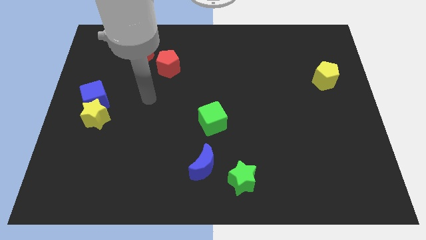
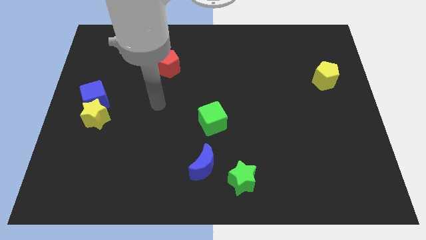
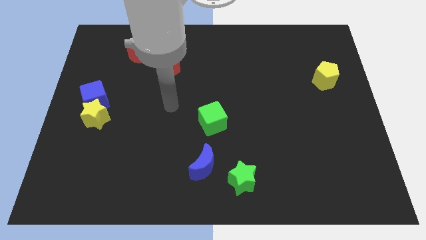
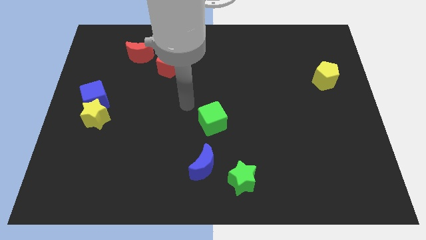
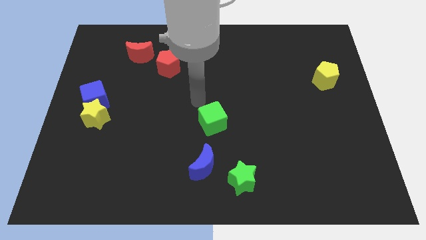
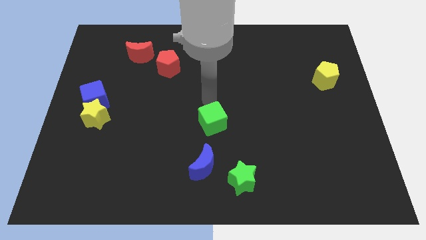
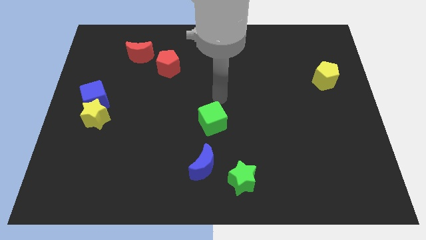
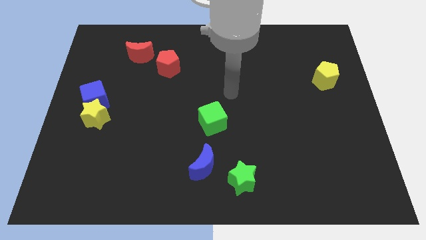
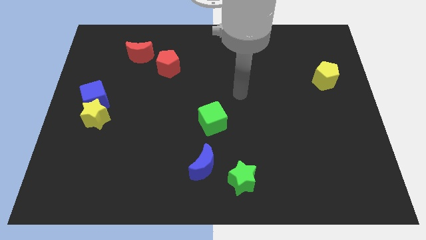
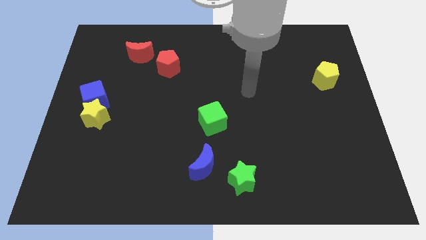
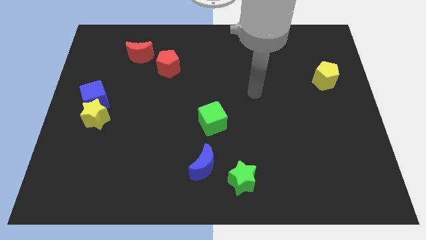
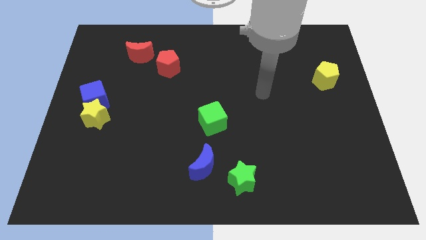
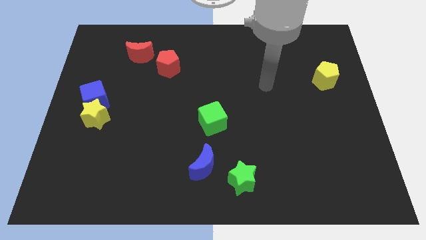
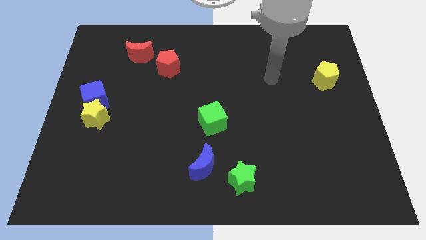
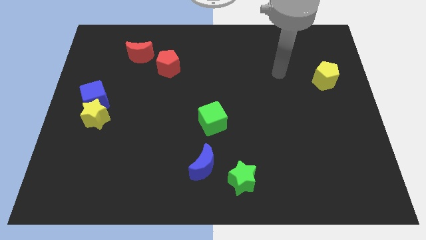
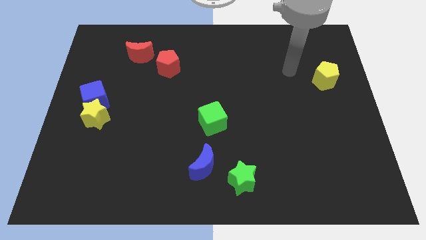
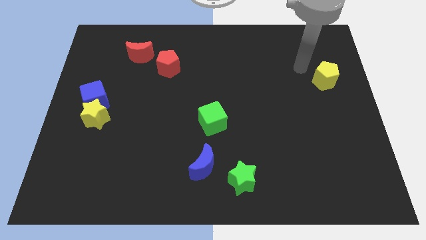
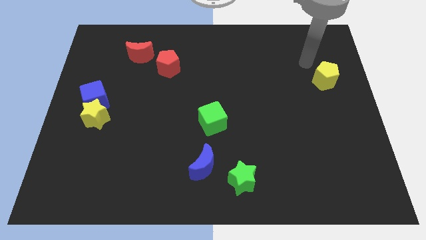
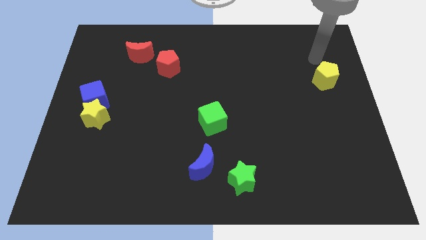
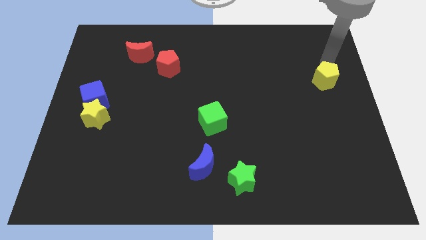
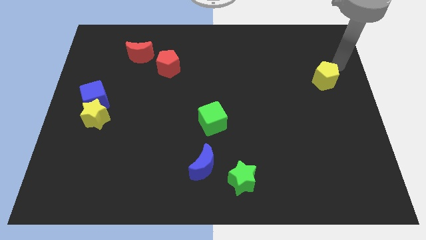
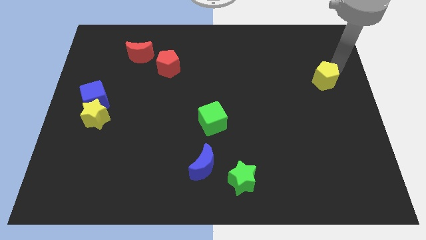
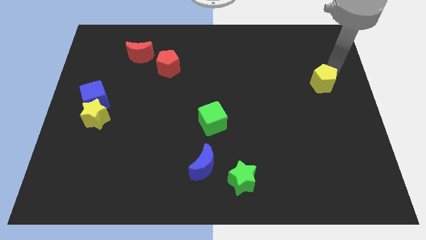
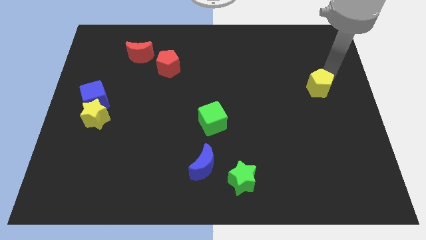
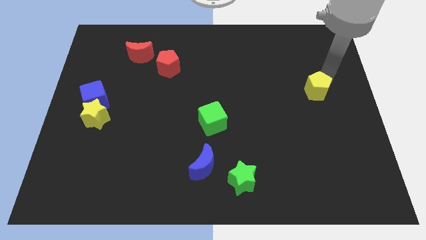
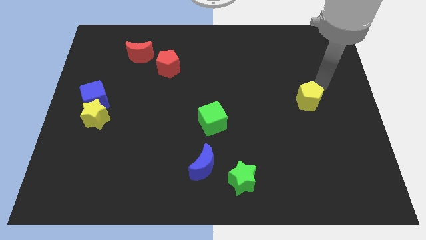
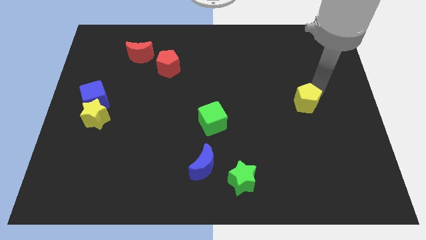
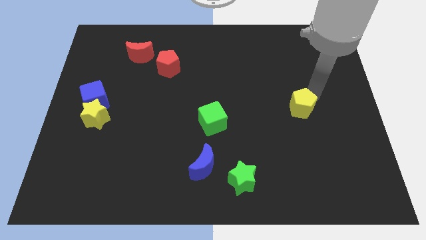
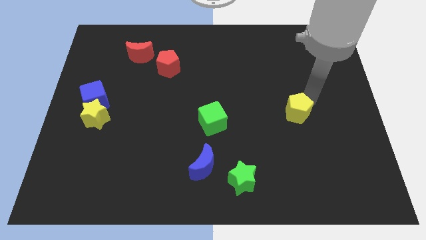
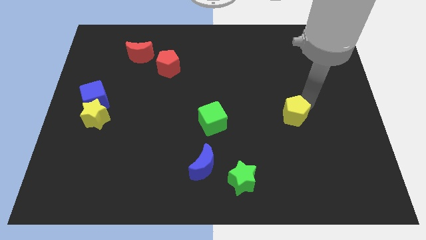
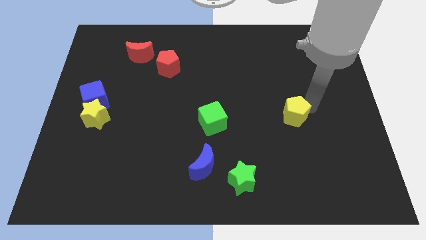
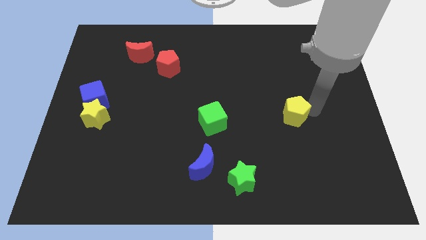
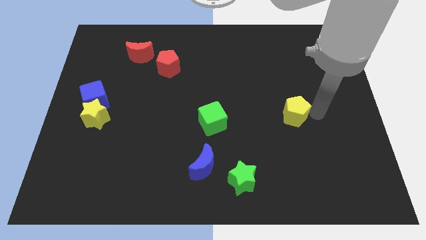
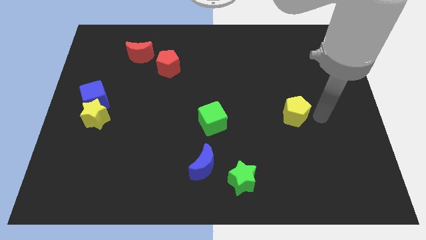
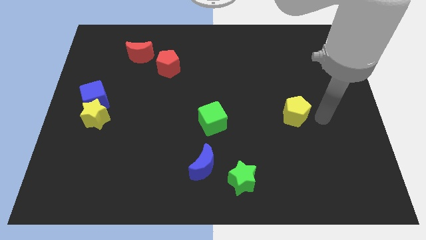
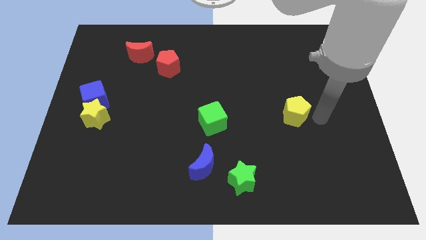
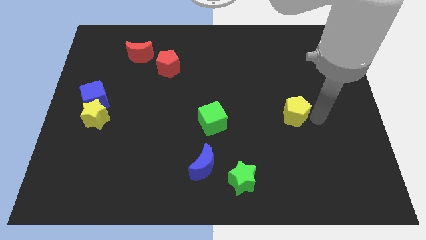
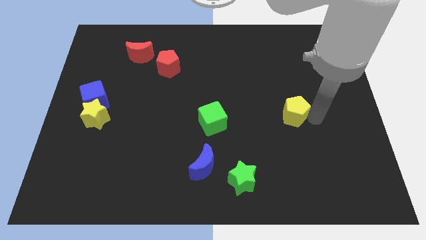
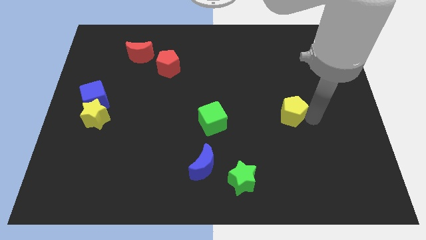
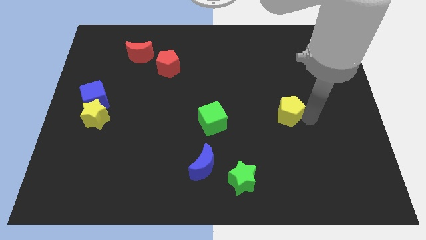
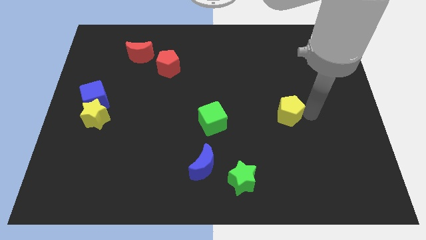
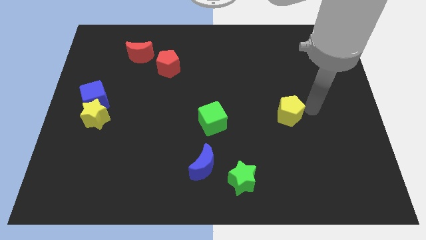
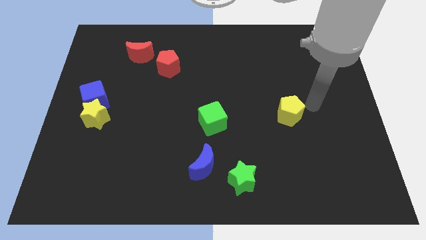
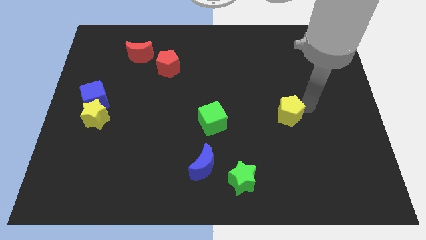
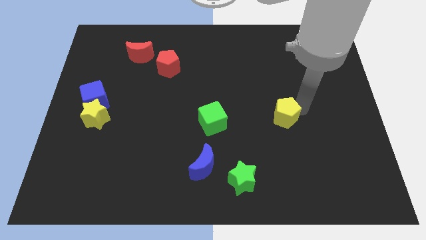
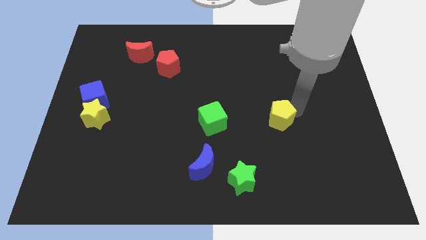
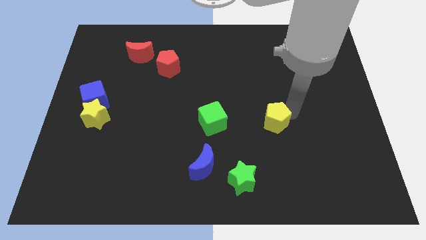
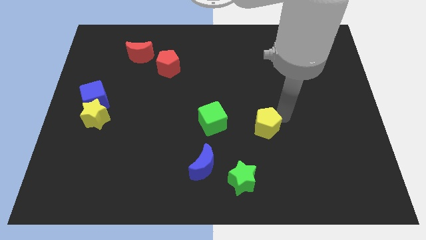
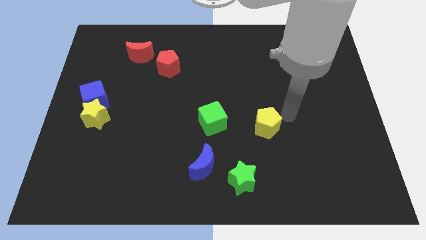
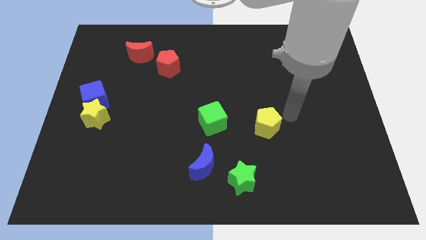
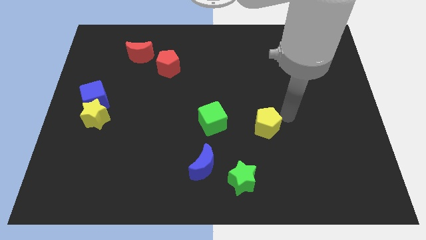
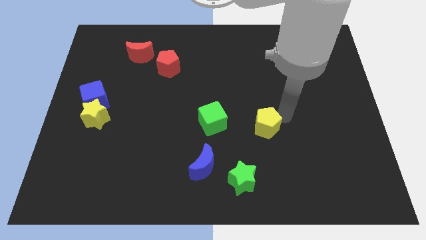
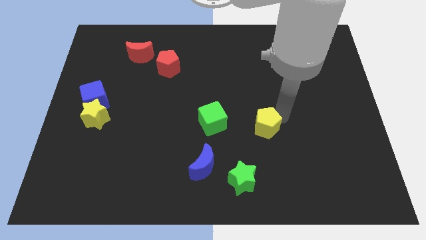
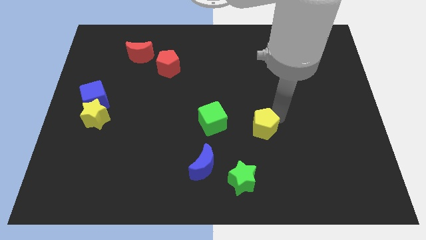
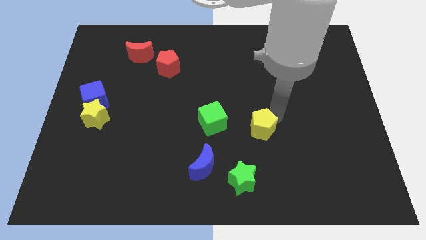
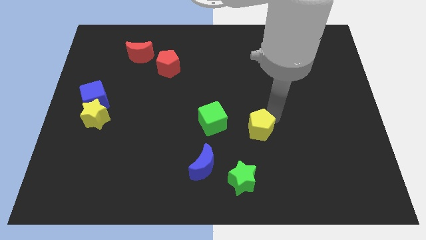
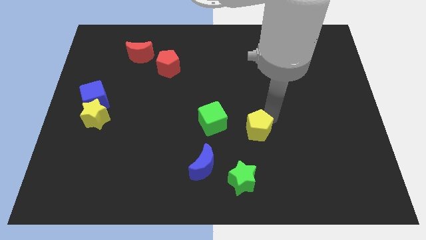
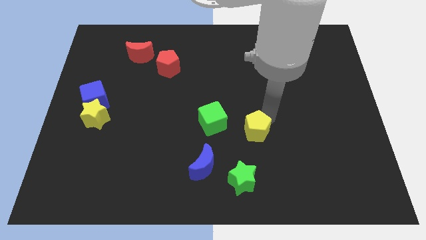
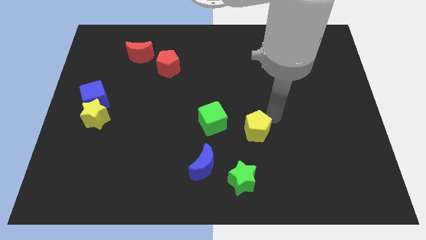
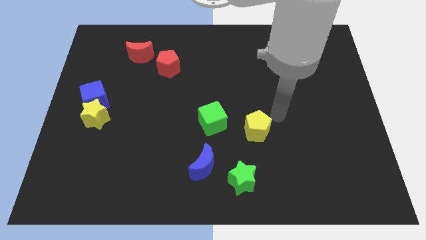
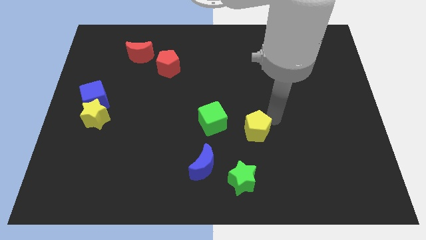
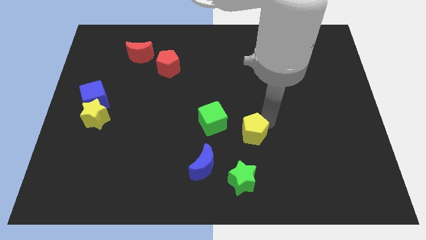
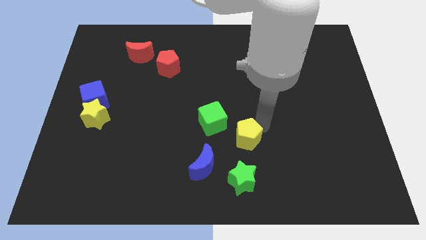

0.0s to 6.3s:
put the yellow pentagon to the top right of the blue moon

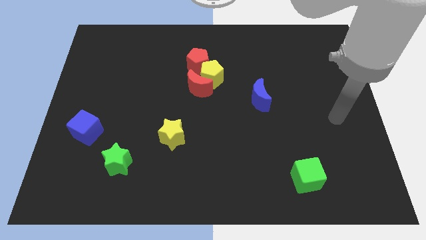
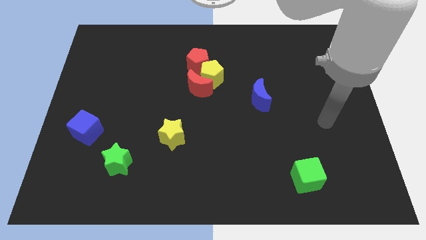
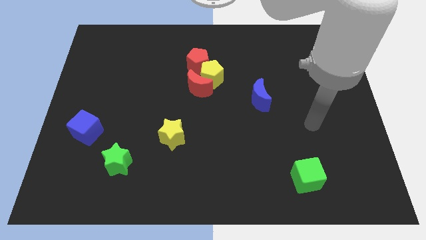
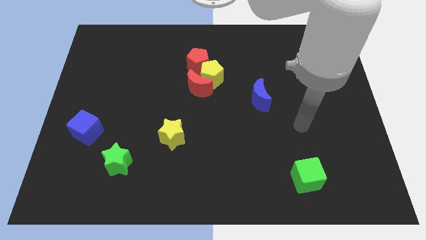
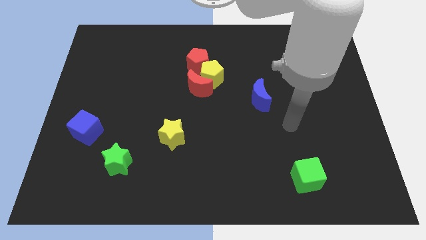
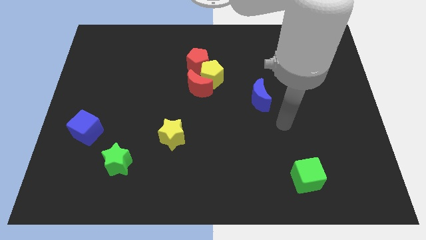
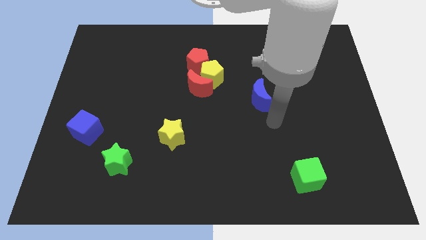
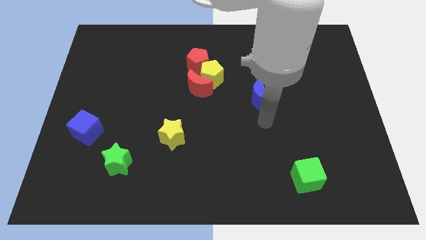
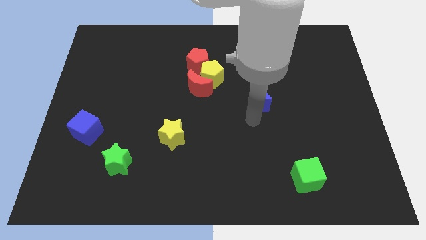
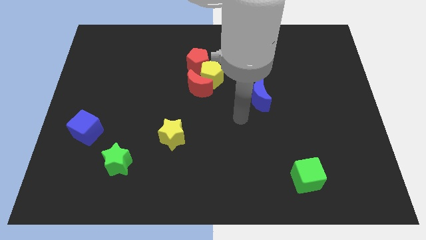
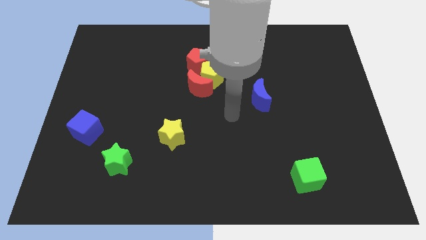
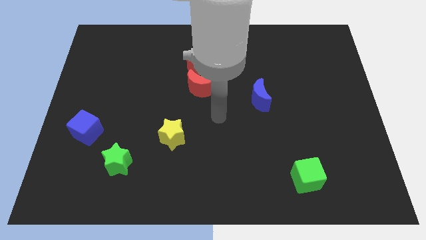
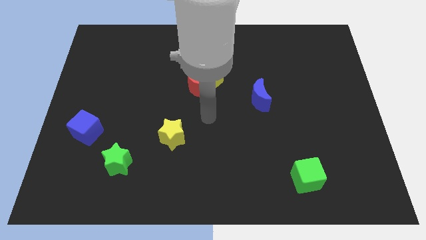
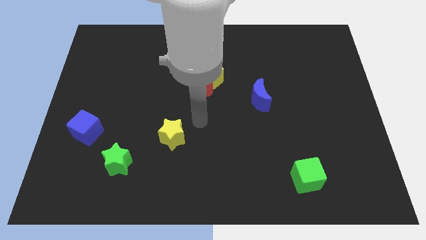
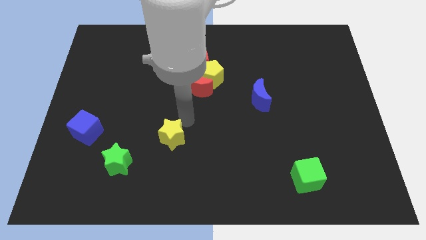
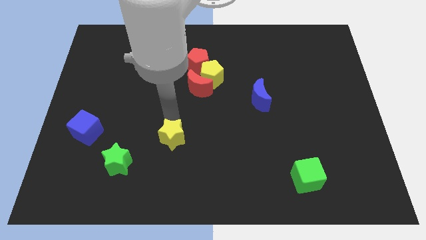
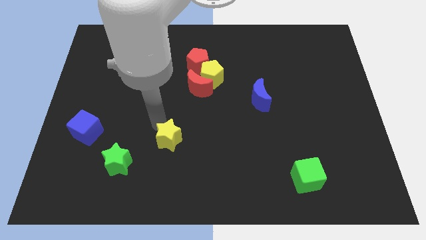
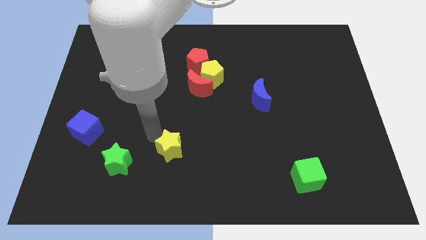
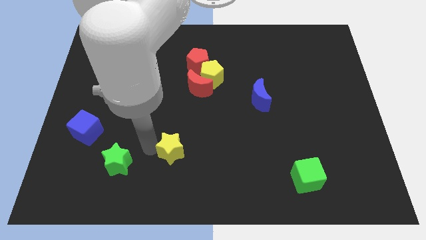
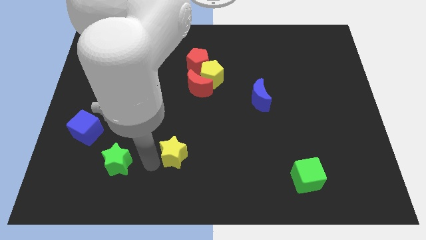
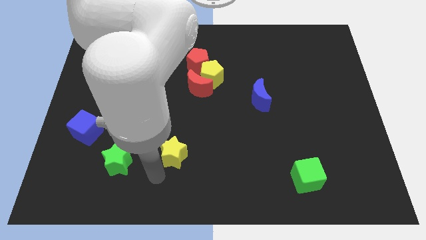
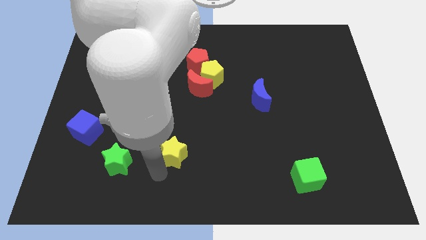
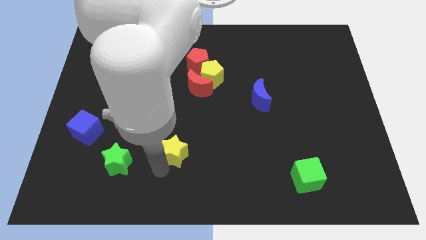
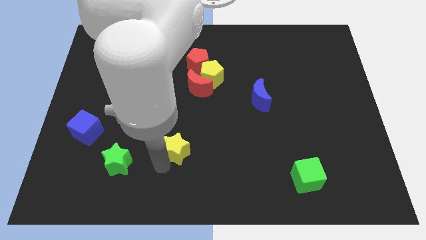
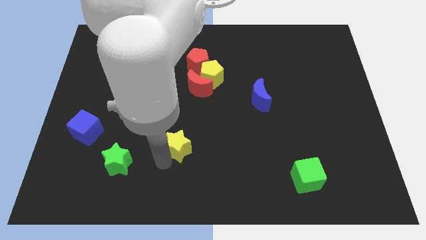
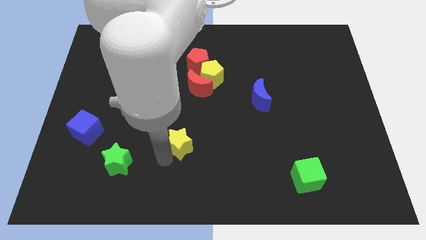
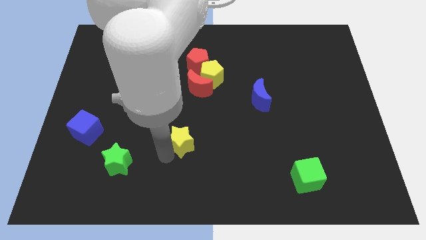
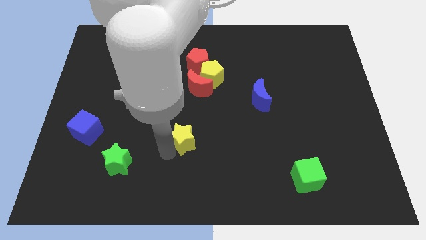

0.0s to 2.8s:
slide the yellow star to the bottom of the red moon
